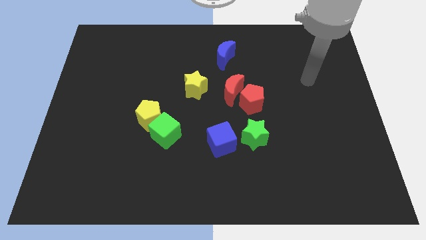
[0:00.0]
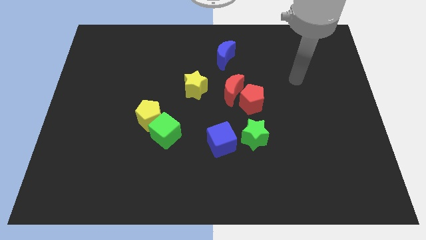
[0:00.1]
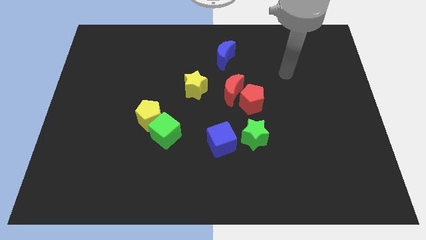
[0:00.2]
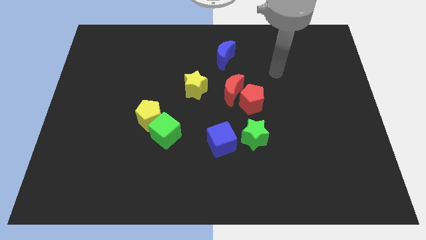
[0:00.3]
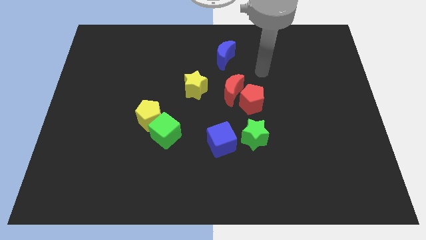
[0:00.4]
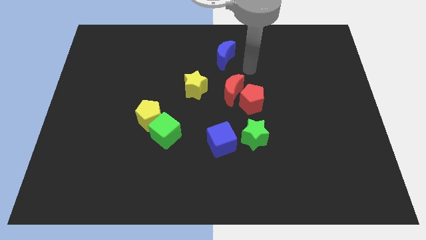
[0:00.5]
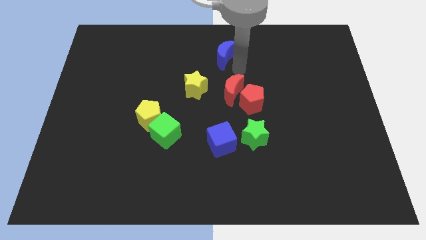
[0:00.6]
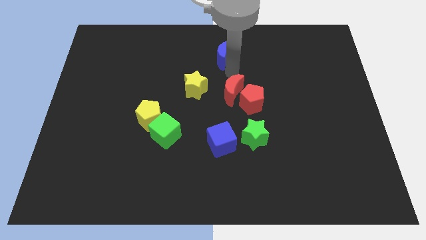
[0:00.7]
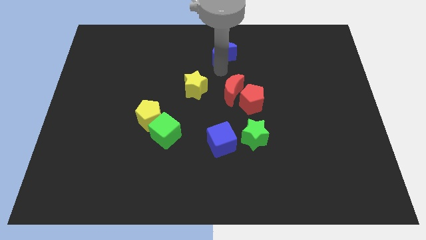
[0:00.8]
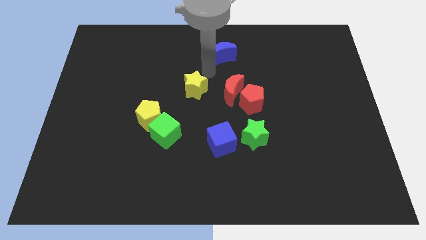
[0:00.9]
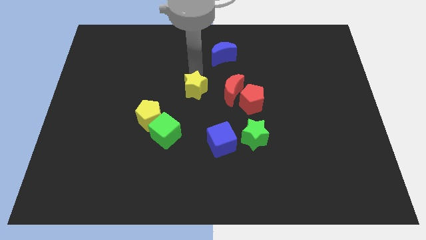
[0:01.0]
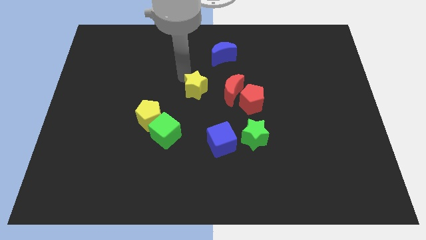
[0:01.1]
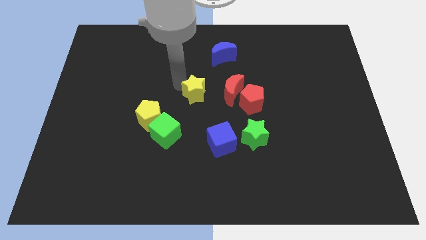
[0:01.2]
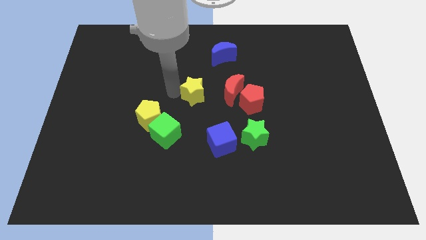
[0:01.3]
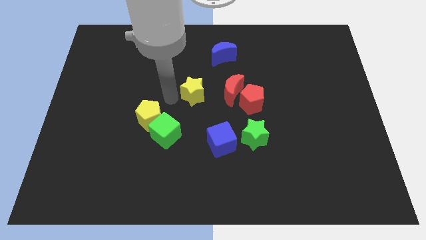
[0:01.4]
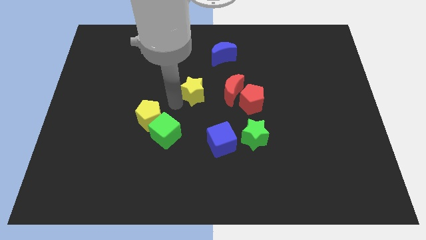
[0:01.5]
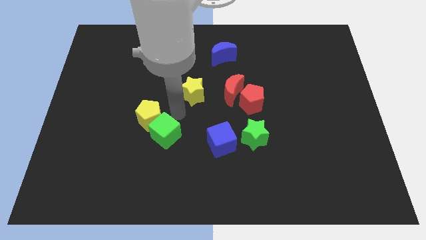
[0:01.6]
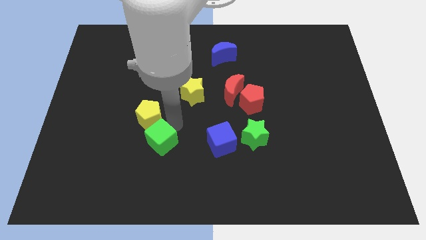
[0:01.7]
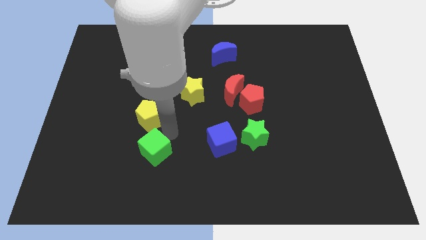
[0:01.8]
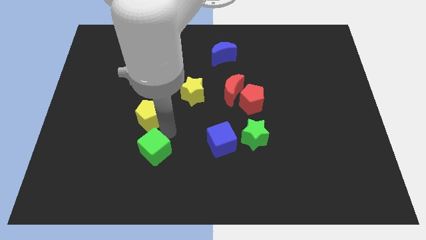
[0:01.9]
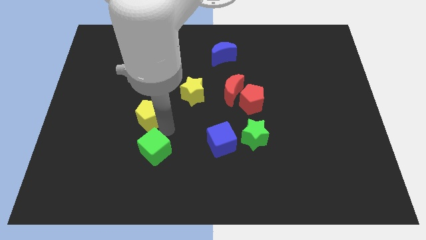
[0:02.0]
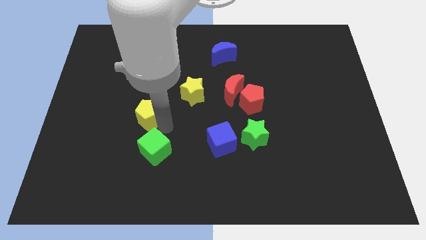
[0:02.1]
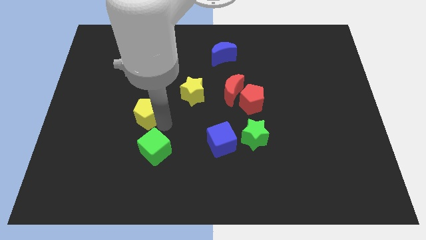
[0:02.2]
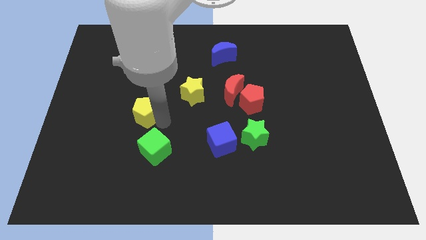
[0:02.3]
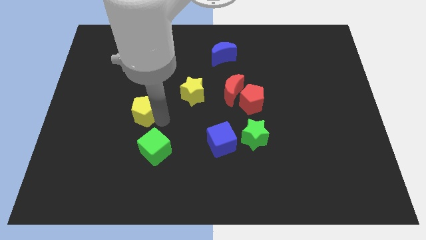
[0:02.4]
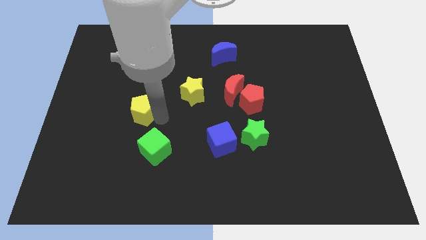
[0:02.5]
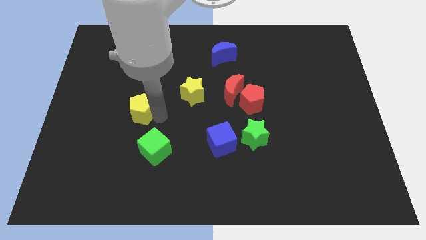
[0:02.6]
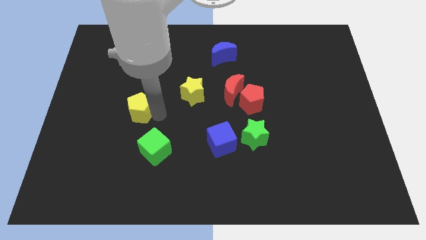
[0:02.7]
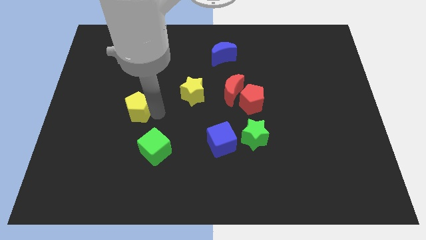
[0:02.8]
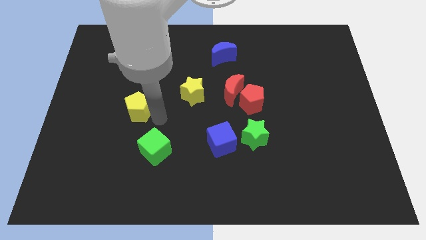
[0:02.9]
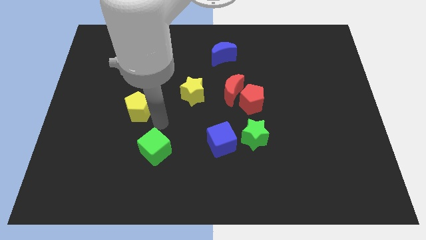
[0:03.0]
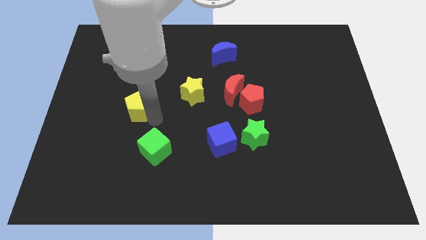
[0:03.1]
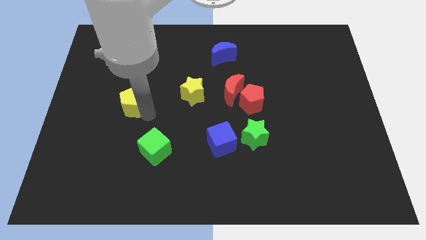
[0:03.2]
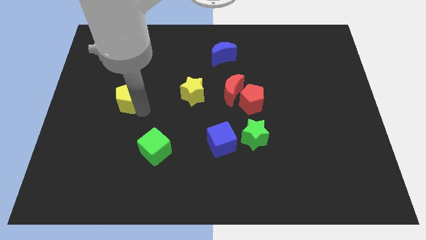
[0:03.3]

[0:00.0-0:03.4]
slightly slide the yellow pentagon upwards and to the left diagonally

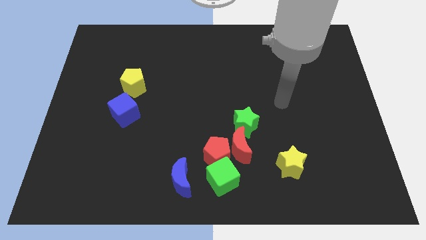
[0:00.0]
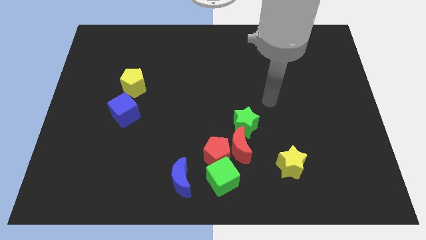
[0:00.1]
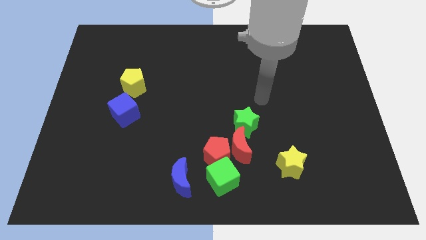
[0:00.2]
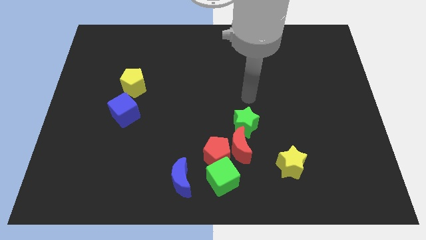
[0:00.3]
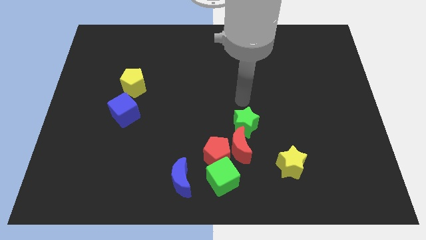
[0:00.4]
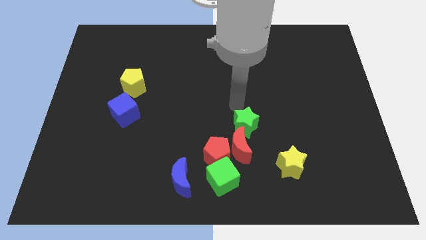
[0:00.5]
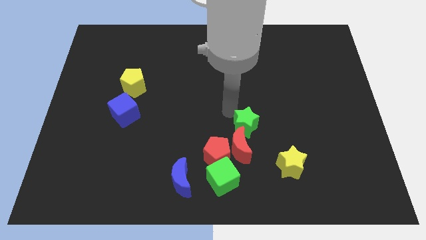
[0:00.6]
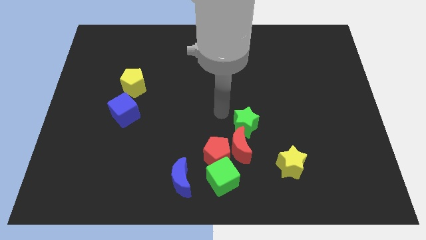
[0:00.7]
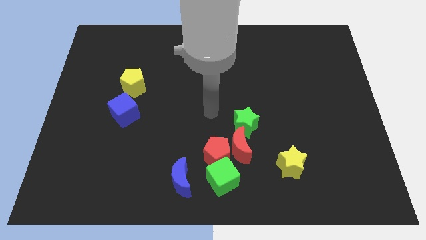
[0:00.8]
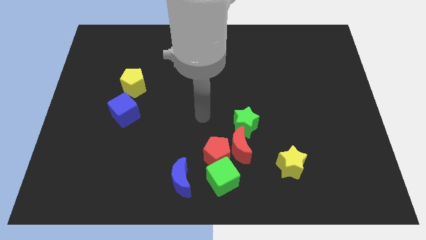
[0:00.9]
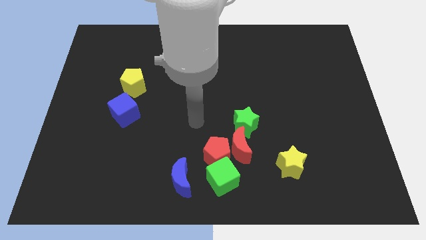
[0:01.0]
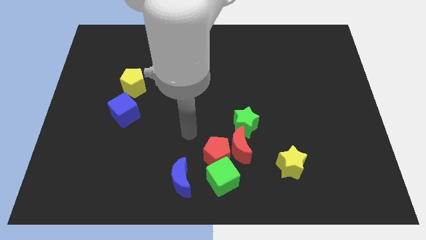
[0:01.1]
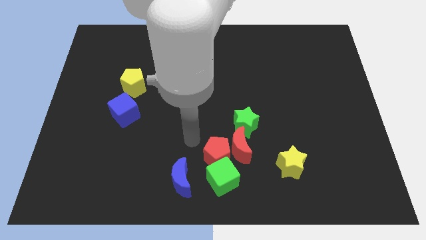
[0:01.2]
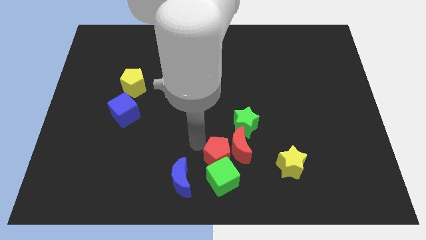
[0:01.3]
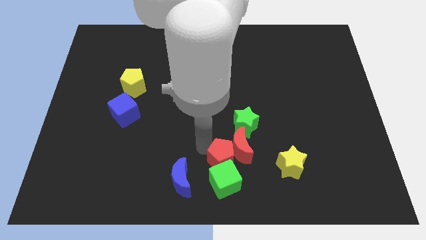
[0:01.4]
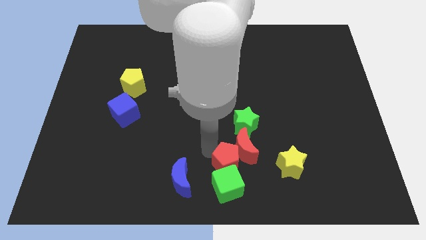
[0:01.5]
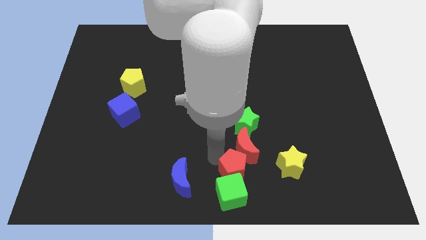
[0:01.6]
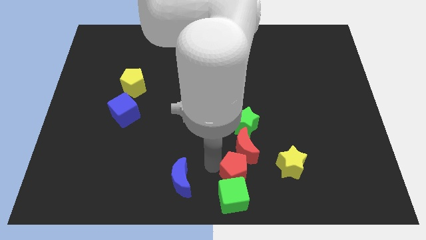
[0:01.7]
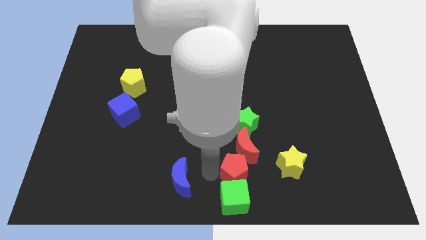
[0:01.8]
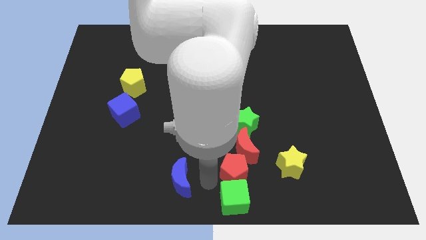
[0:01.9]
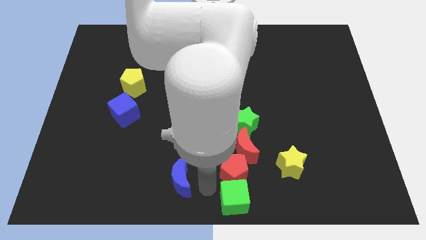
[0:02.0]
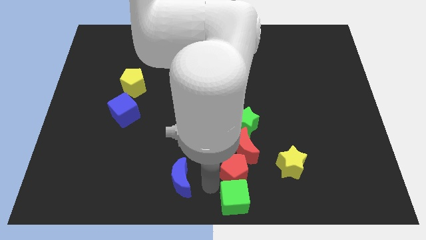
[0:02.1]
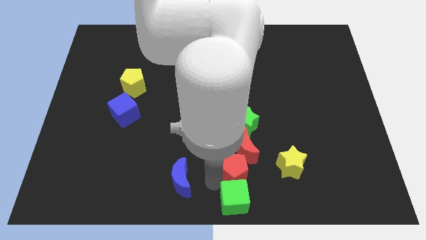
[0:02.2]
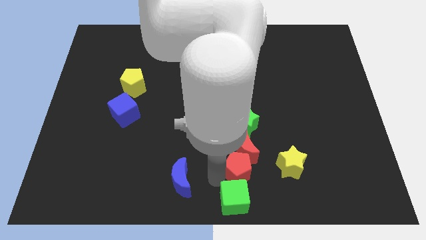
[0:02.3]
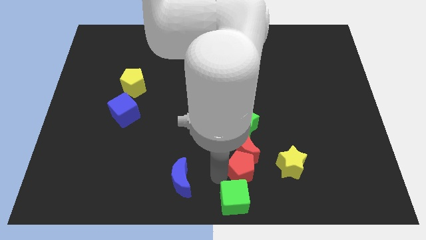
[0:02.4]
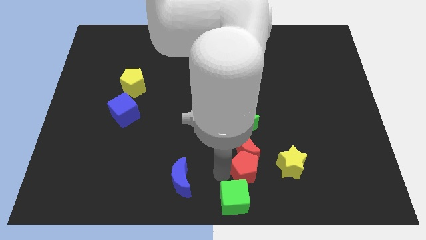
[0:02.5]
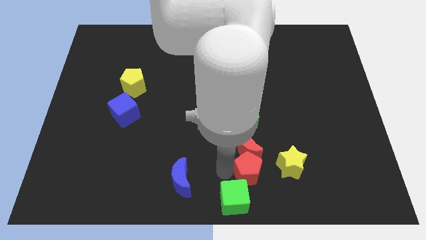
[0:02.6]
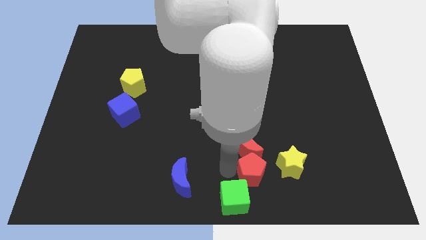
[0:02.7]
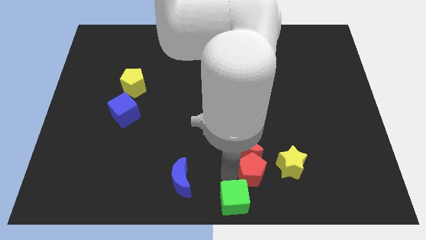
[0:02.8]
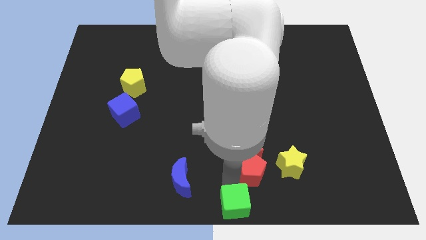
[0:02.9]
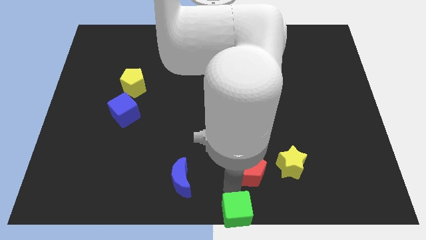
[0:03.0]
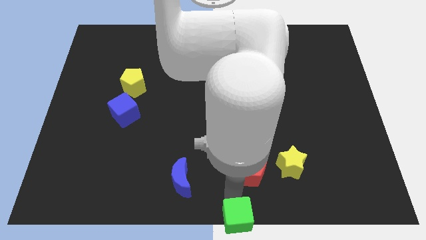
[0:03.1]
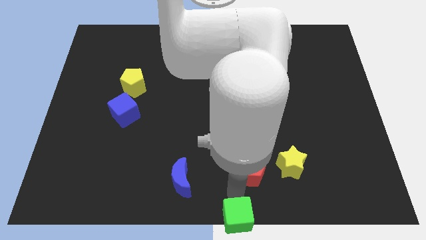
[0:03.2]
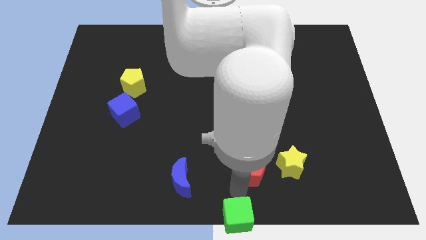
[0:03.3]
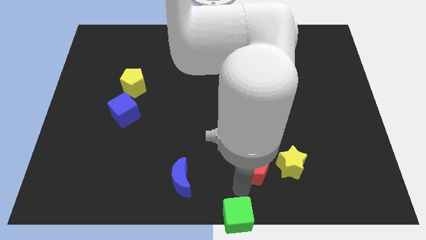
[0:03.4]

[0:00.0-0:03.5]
move the red pentagon to the right somewhat

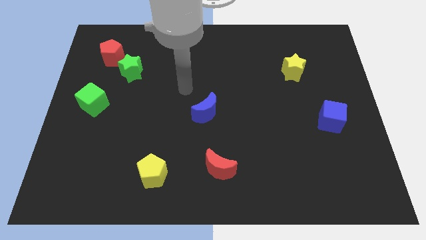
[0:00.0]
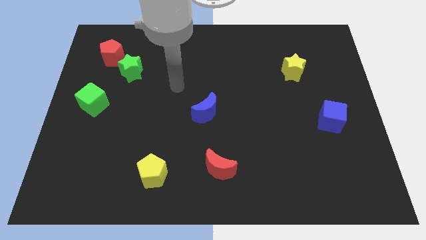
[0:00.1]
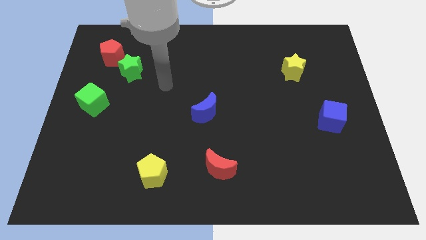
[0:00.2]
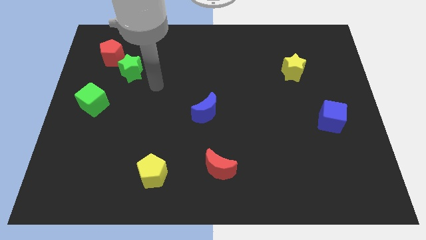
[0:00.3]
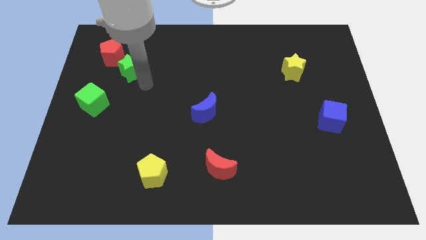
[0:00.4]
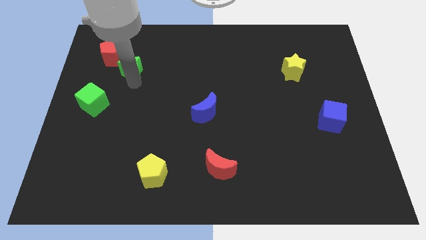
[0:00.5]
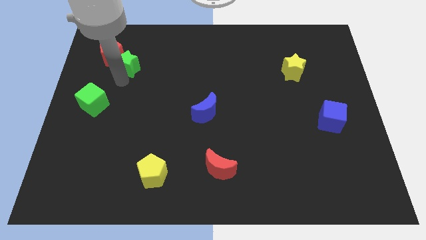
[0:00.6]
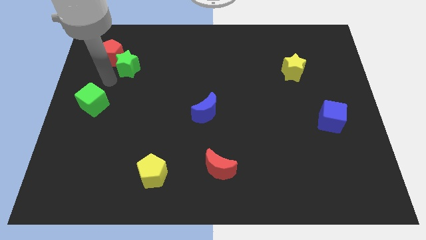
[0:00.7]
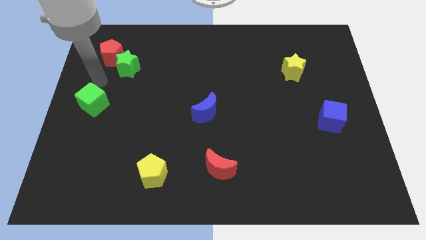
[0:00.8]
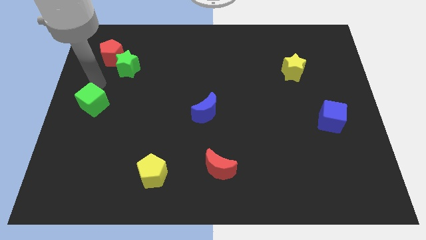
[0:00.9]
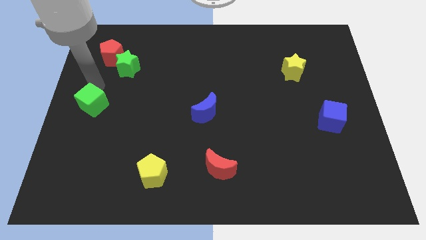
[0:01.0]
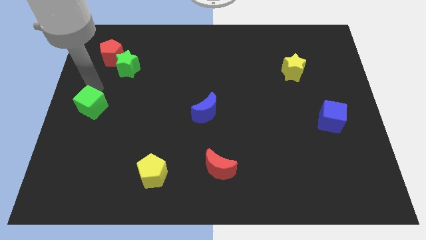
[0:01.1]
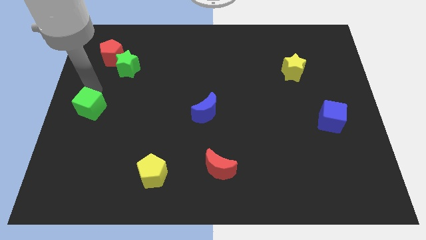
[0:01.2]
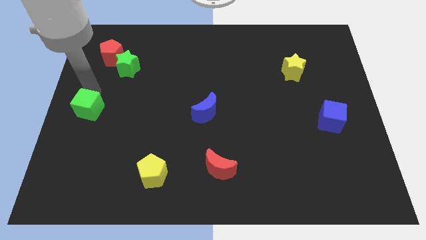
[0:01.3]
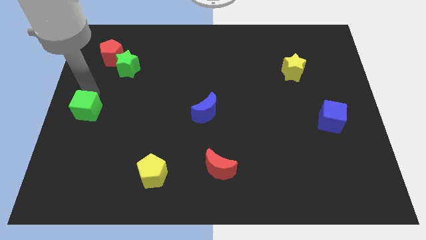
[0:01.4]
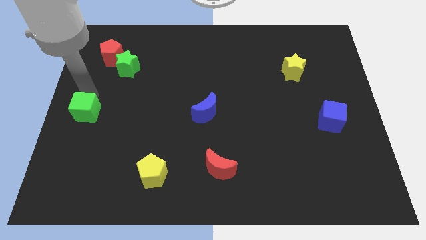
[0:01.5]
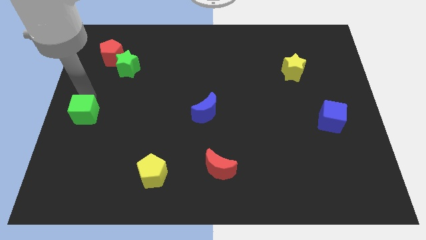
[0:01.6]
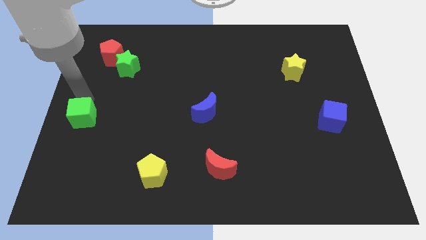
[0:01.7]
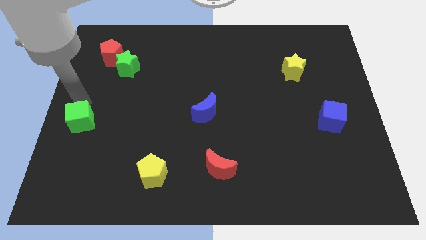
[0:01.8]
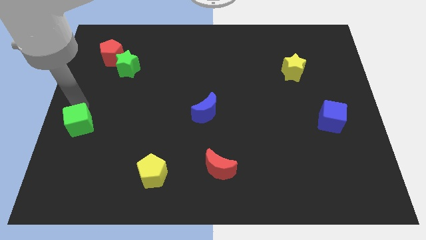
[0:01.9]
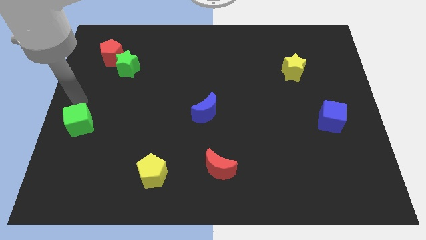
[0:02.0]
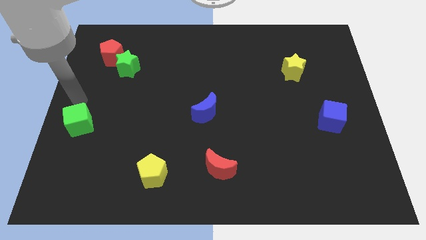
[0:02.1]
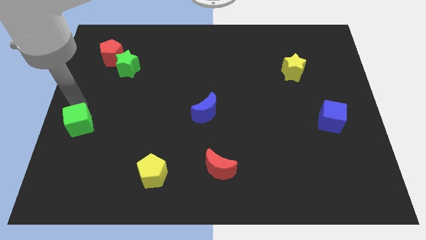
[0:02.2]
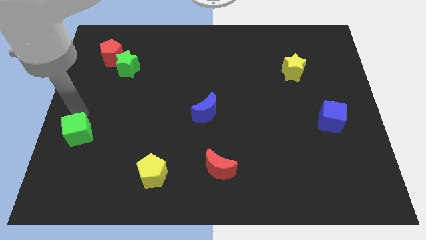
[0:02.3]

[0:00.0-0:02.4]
slightly move the green cube downwards
